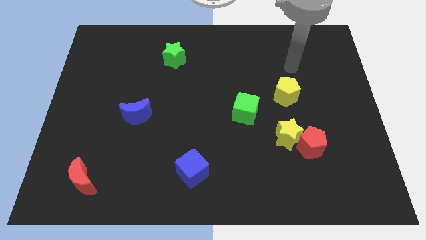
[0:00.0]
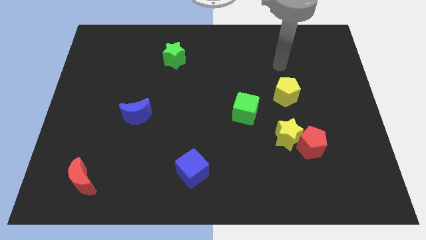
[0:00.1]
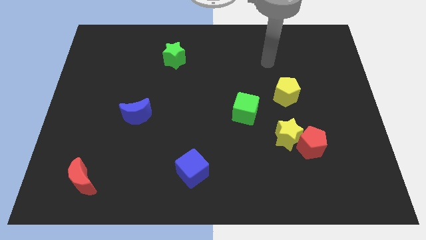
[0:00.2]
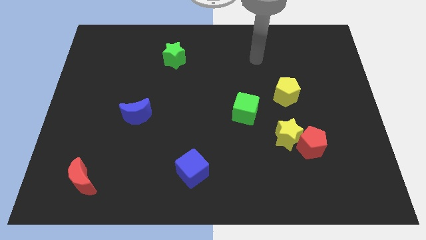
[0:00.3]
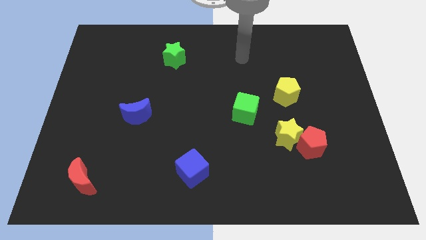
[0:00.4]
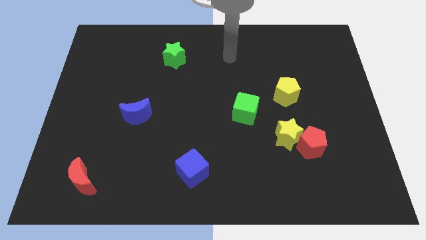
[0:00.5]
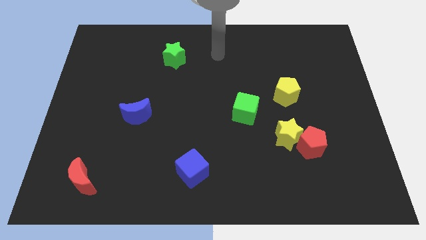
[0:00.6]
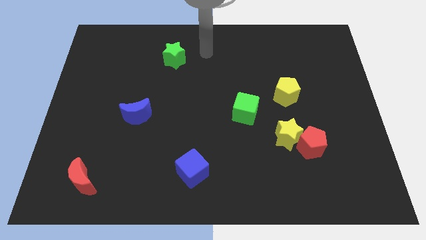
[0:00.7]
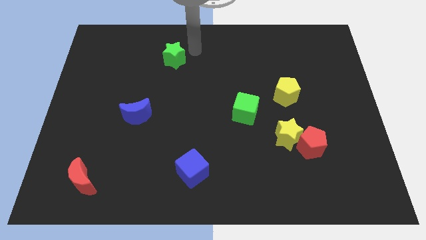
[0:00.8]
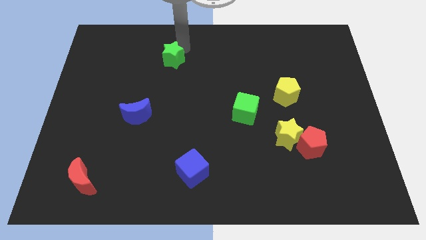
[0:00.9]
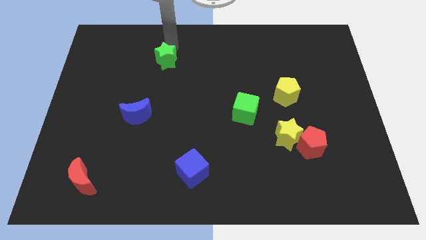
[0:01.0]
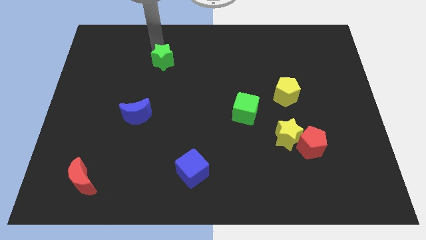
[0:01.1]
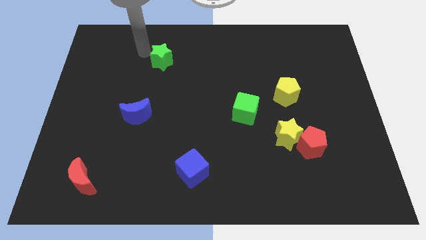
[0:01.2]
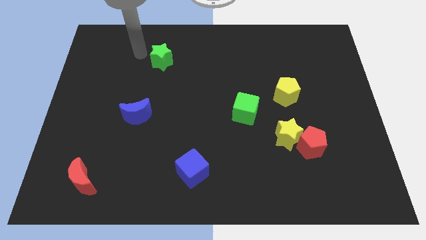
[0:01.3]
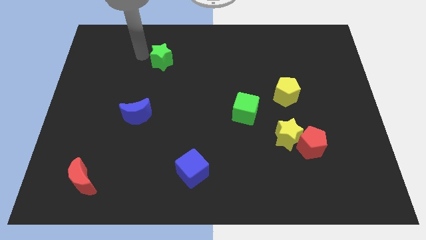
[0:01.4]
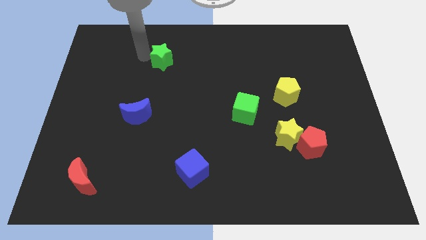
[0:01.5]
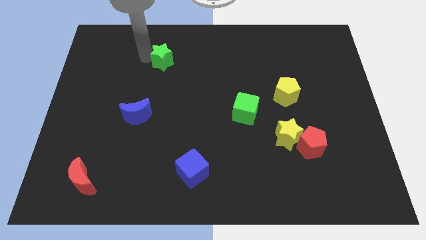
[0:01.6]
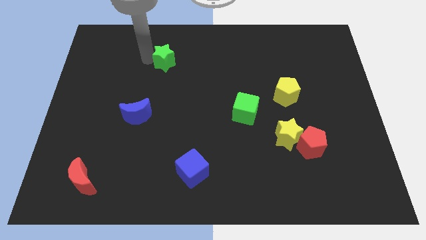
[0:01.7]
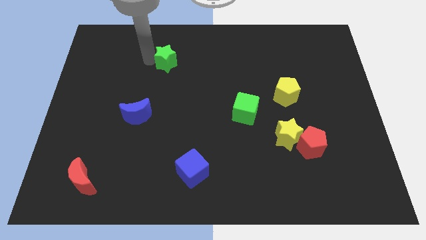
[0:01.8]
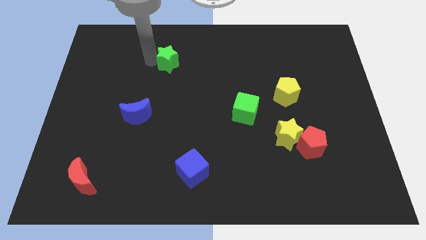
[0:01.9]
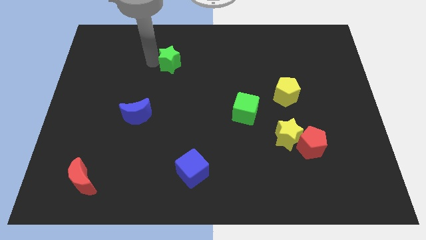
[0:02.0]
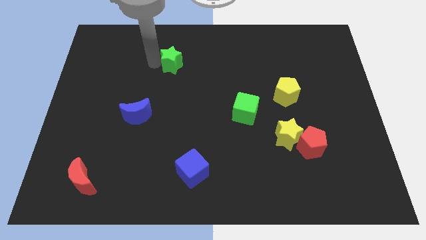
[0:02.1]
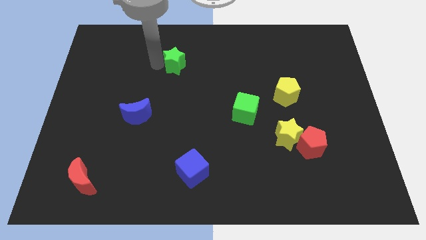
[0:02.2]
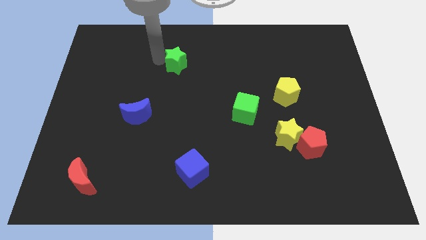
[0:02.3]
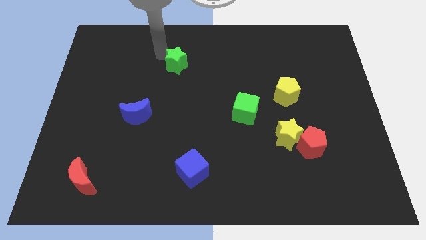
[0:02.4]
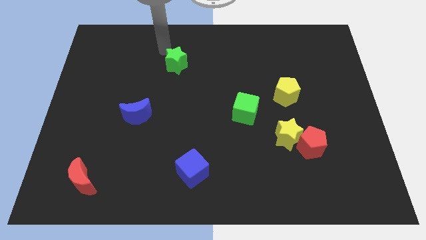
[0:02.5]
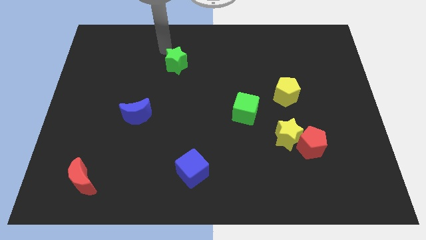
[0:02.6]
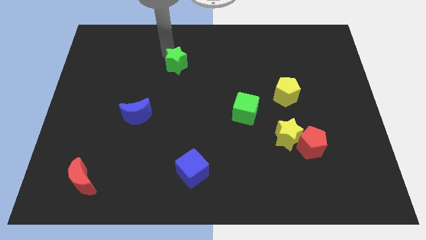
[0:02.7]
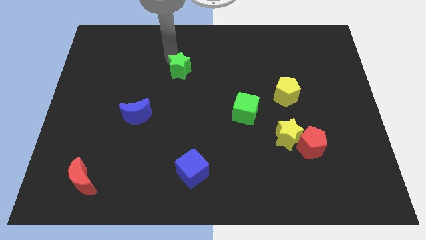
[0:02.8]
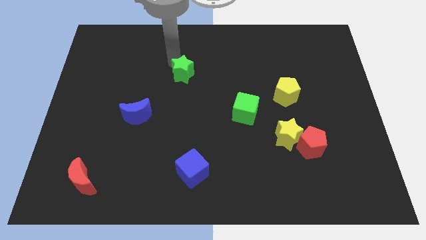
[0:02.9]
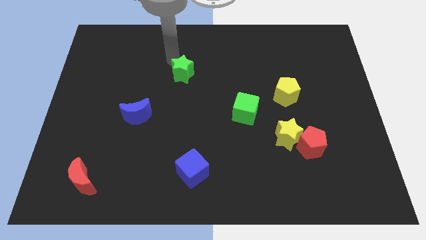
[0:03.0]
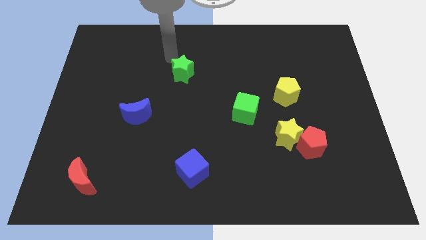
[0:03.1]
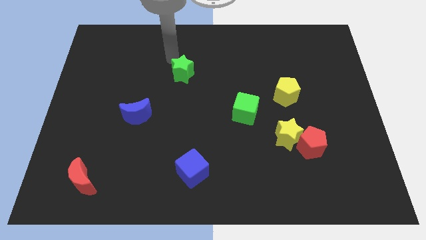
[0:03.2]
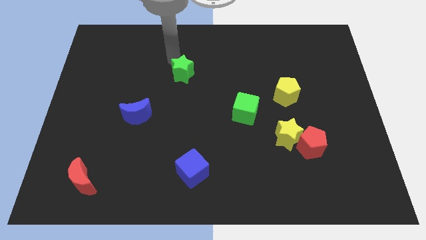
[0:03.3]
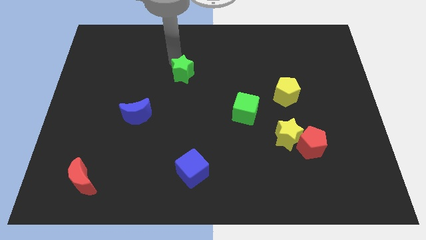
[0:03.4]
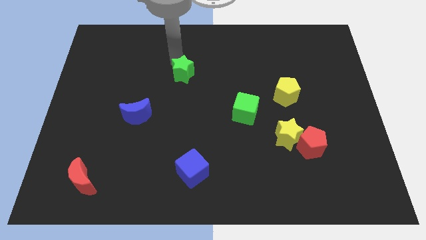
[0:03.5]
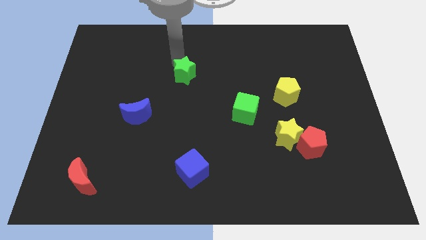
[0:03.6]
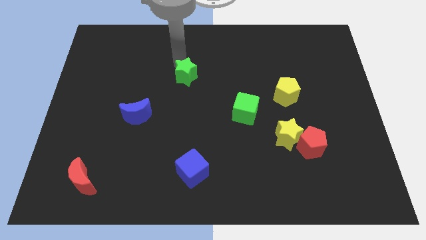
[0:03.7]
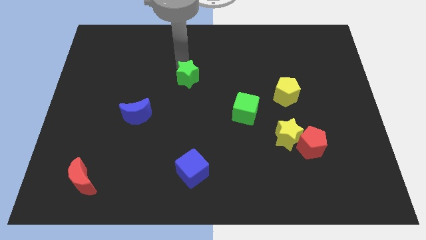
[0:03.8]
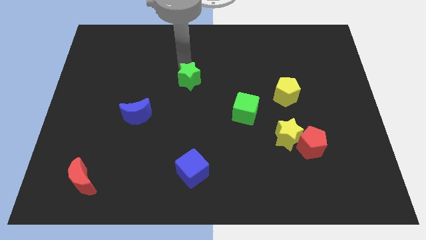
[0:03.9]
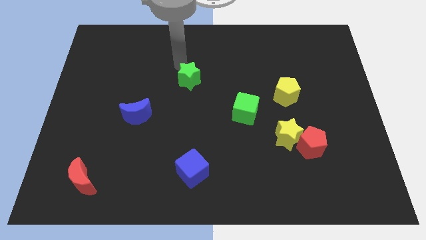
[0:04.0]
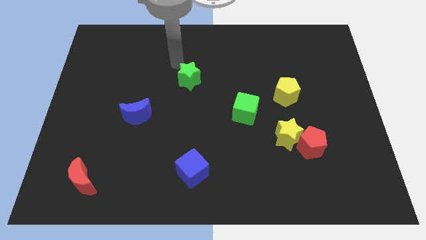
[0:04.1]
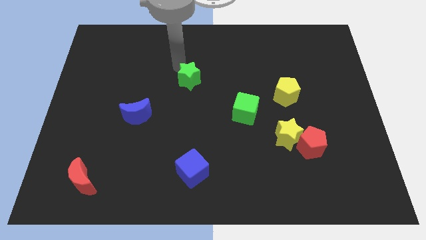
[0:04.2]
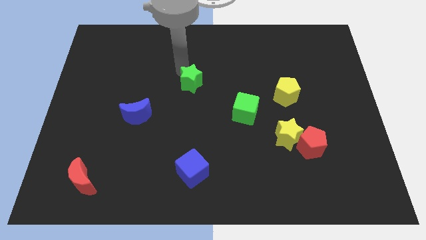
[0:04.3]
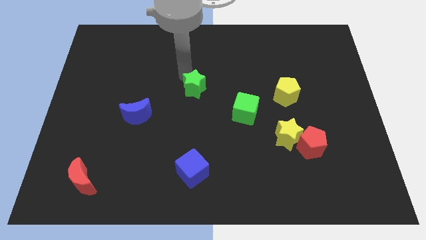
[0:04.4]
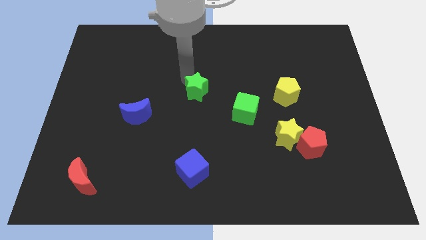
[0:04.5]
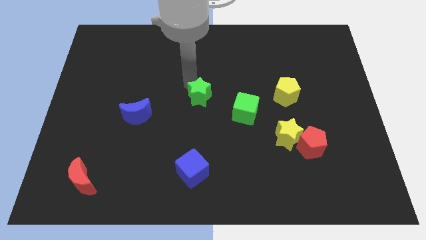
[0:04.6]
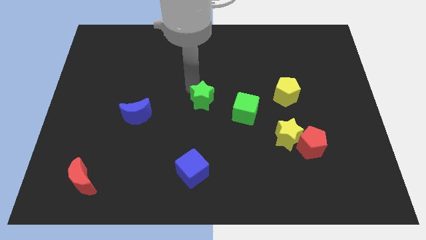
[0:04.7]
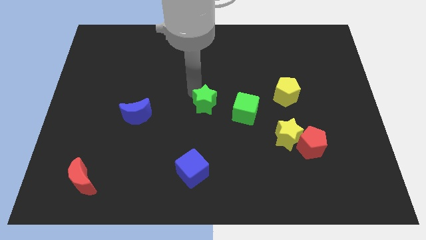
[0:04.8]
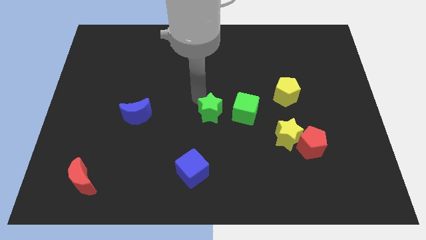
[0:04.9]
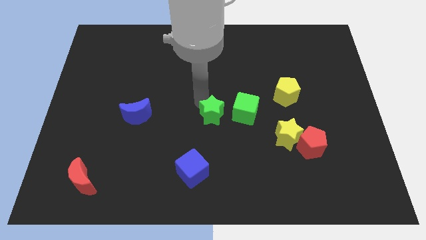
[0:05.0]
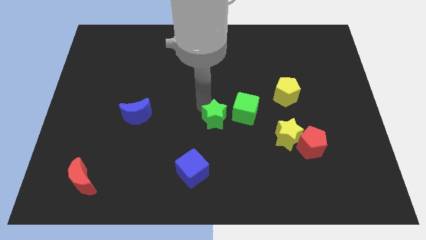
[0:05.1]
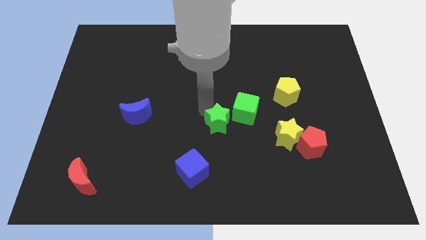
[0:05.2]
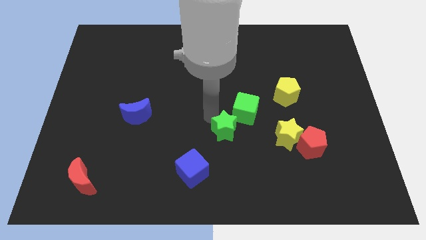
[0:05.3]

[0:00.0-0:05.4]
put the green star to the bottom side of the green cube

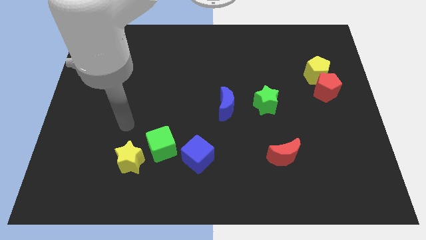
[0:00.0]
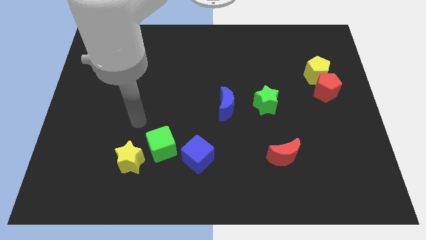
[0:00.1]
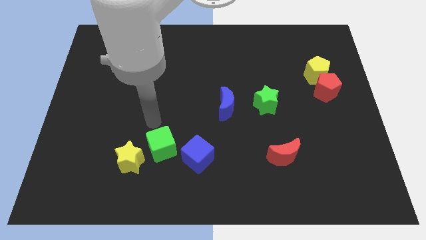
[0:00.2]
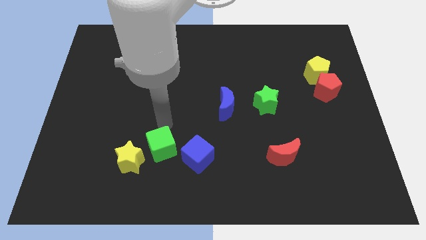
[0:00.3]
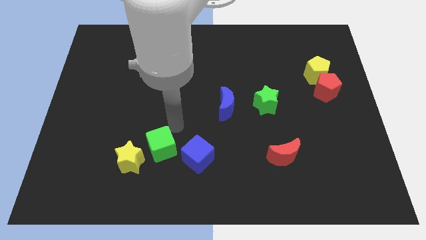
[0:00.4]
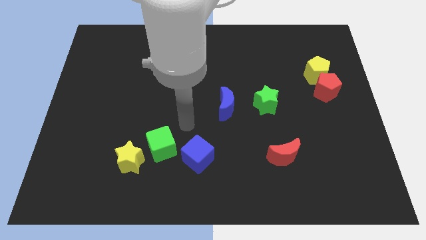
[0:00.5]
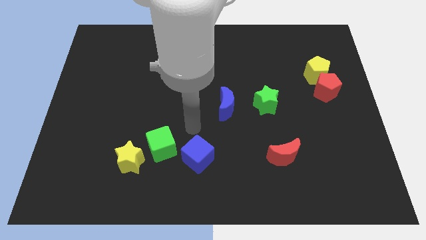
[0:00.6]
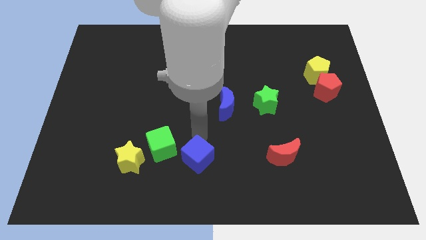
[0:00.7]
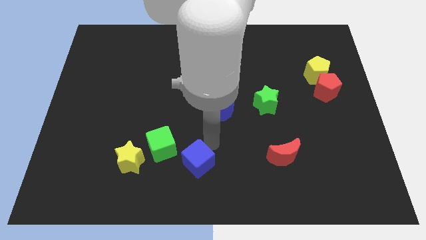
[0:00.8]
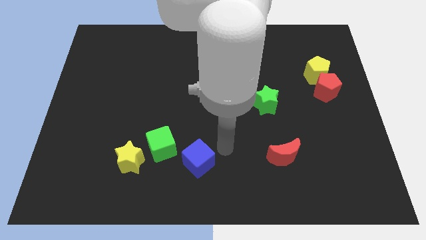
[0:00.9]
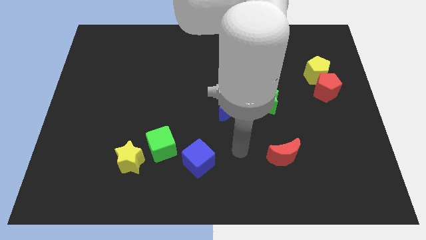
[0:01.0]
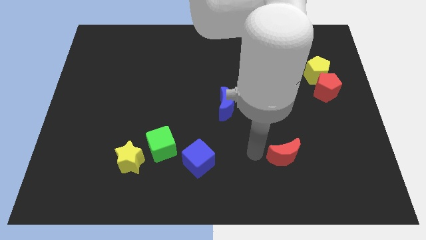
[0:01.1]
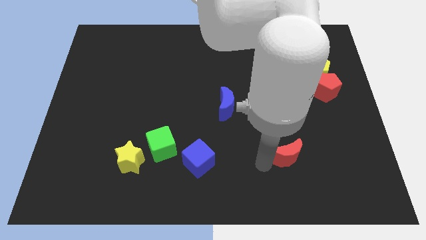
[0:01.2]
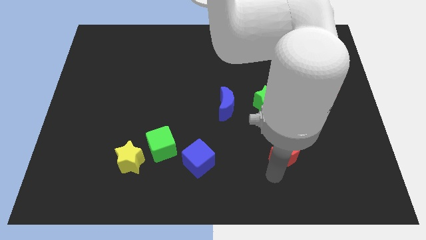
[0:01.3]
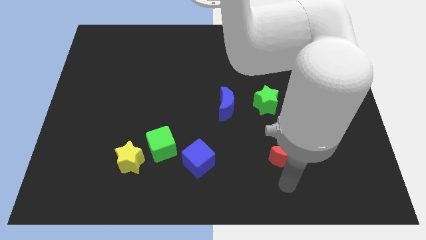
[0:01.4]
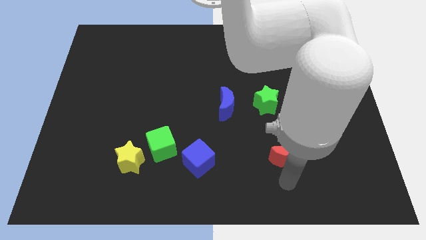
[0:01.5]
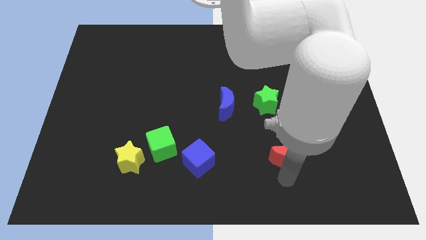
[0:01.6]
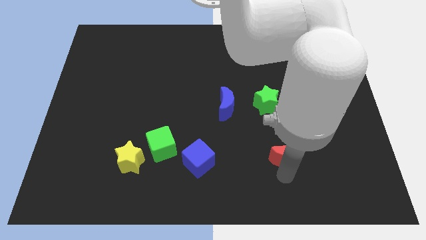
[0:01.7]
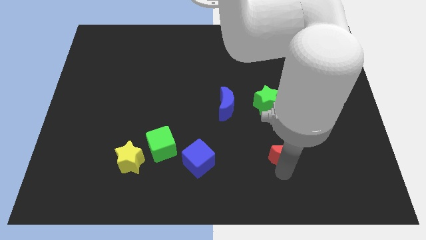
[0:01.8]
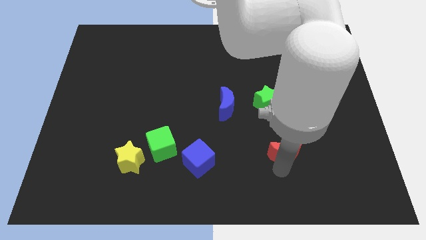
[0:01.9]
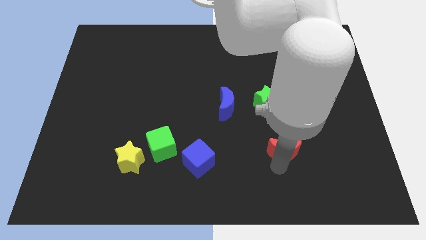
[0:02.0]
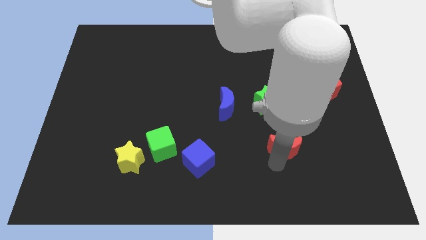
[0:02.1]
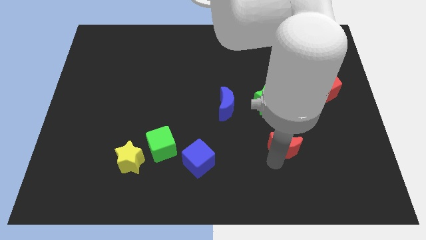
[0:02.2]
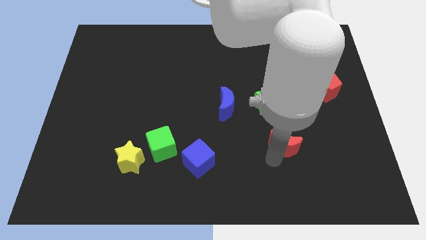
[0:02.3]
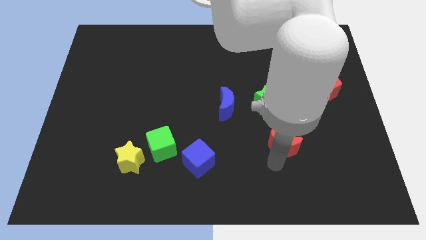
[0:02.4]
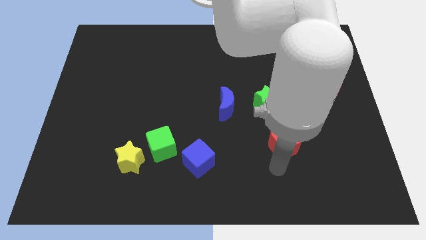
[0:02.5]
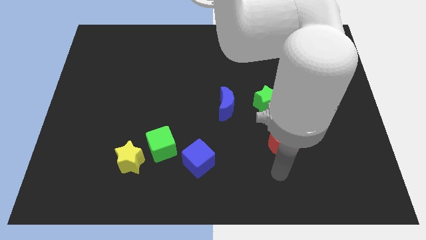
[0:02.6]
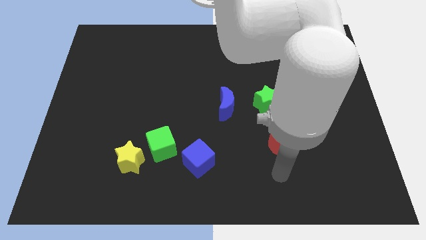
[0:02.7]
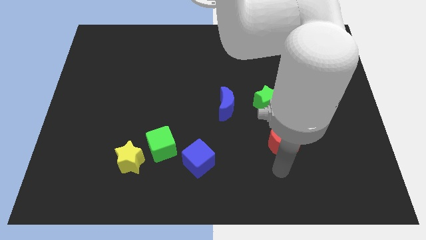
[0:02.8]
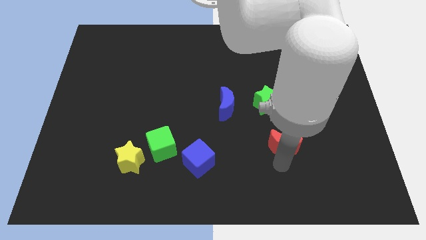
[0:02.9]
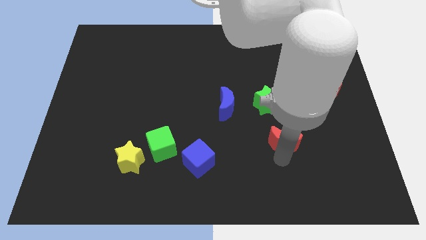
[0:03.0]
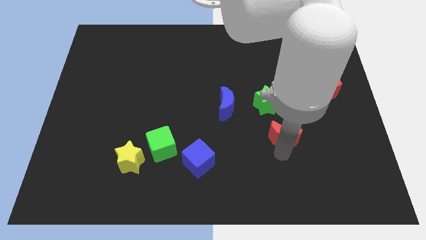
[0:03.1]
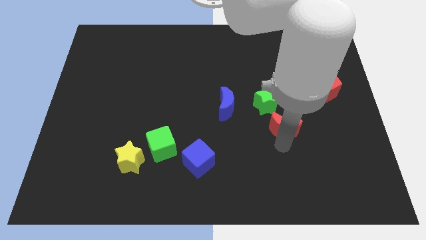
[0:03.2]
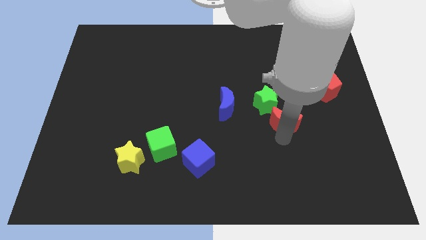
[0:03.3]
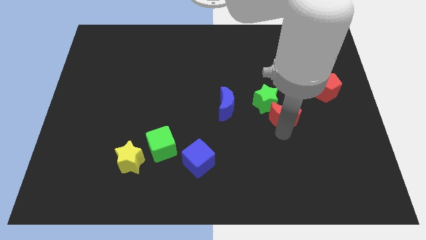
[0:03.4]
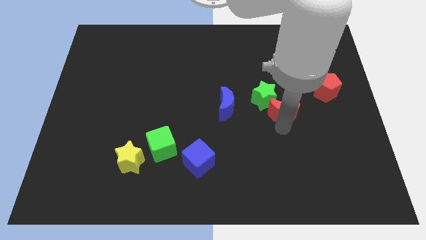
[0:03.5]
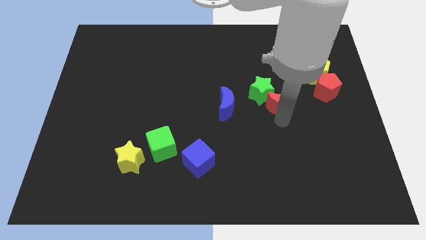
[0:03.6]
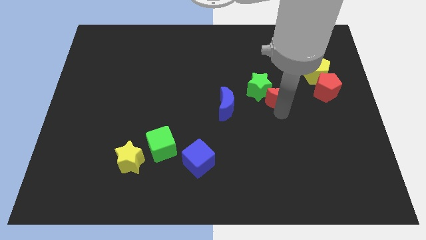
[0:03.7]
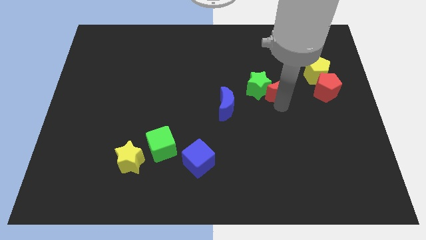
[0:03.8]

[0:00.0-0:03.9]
slide the red moon diagonally up and to the right of the green star
